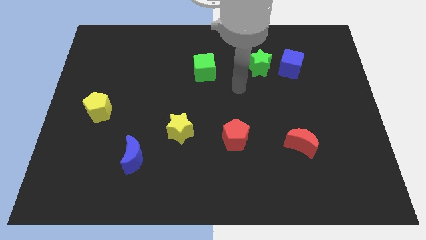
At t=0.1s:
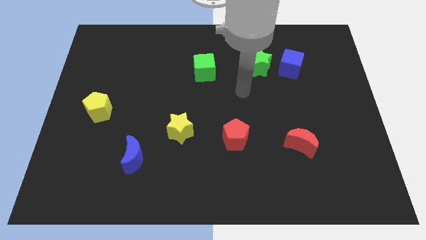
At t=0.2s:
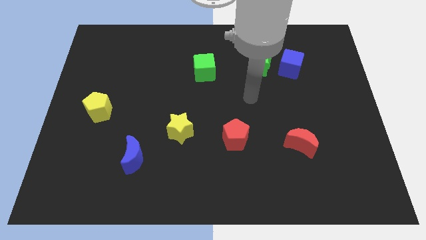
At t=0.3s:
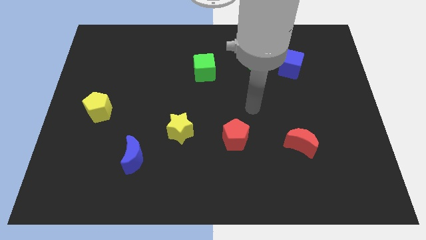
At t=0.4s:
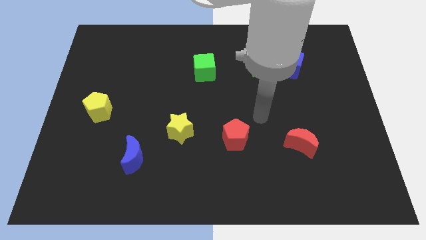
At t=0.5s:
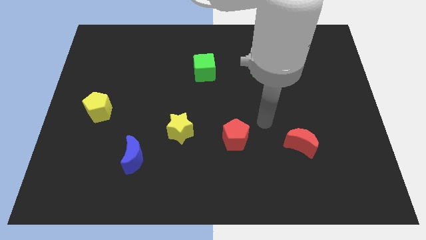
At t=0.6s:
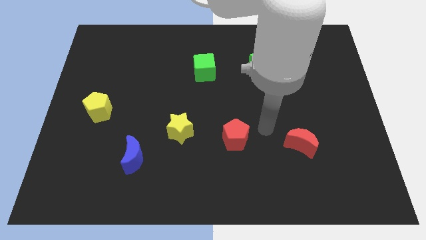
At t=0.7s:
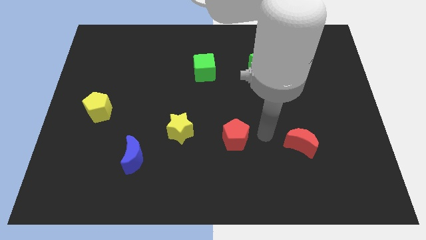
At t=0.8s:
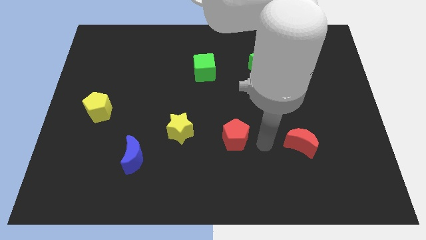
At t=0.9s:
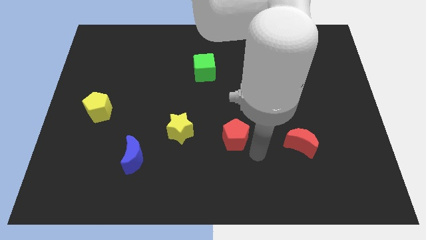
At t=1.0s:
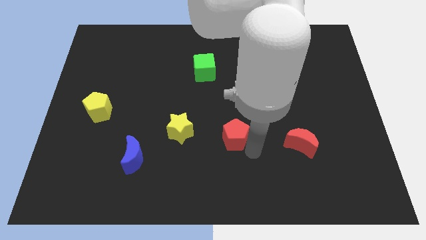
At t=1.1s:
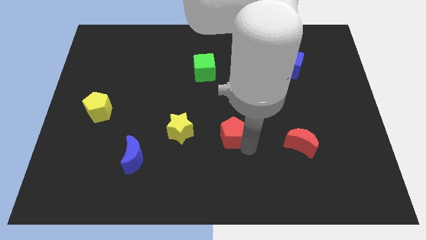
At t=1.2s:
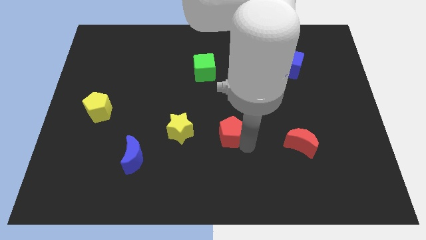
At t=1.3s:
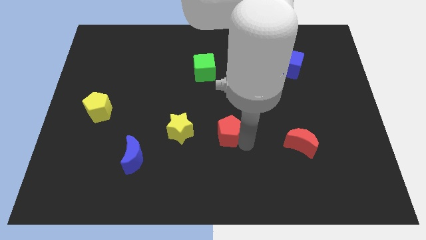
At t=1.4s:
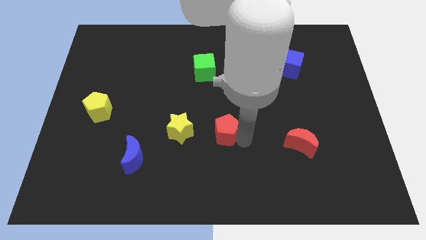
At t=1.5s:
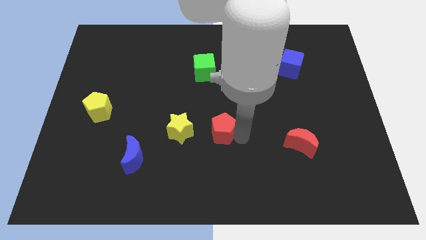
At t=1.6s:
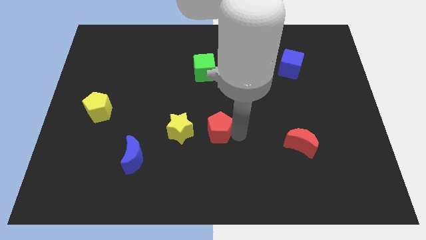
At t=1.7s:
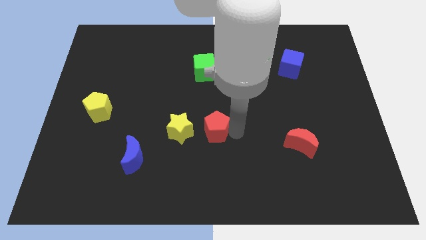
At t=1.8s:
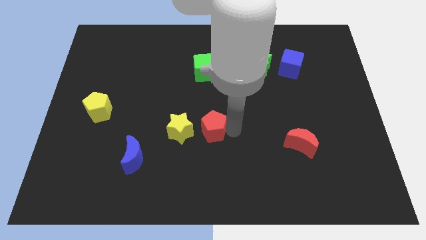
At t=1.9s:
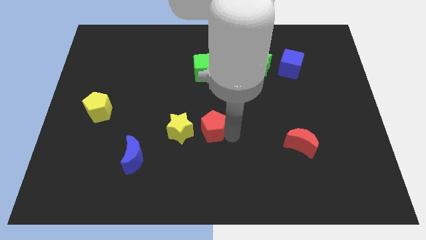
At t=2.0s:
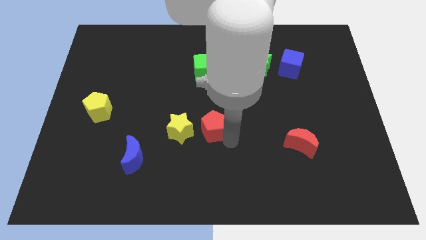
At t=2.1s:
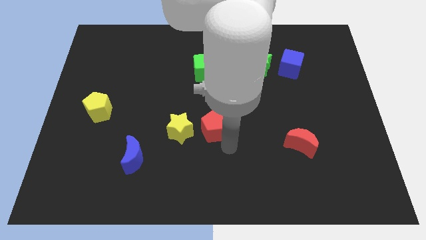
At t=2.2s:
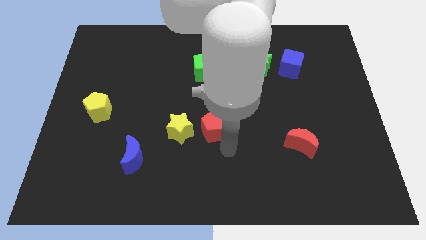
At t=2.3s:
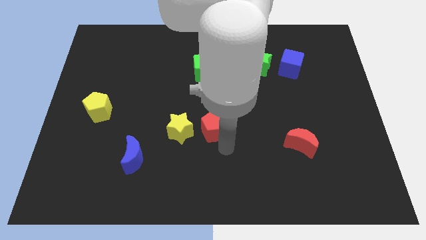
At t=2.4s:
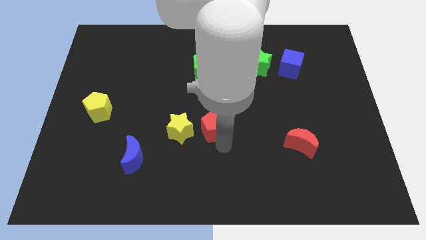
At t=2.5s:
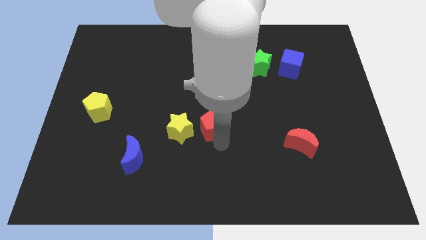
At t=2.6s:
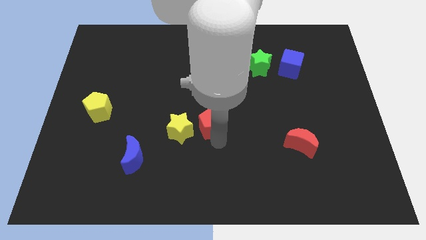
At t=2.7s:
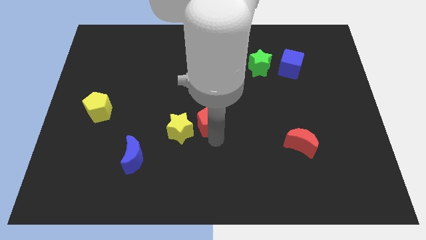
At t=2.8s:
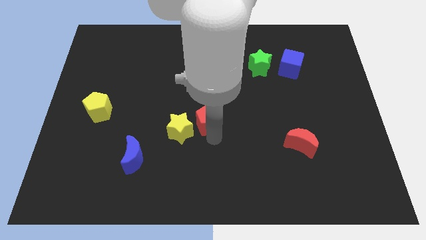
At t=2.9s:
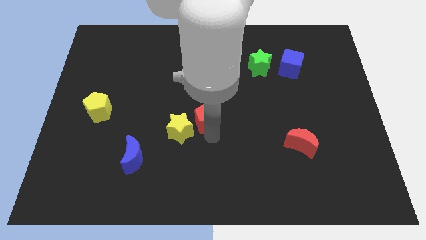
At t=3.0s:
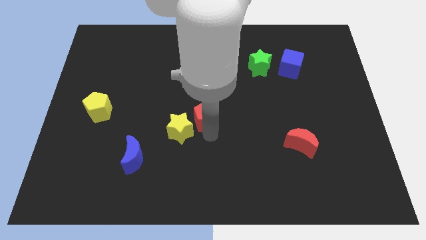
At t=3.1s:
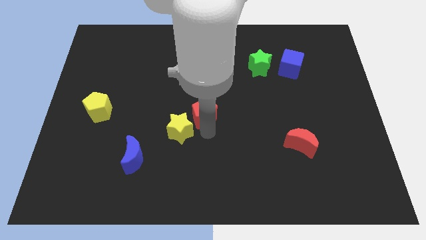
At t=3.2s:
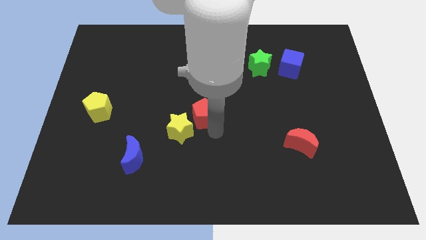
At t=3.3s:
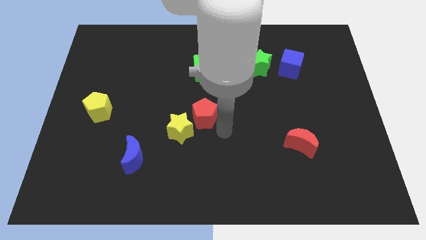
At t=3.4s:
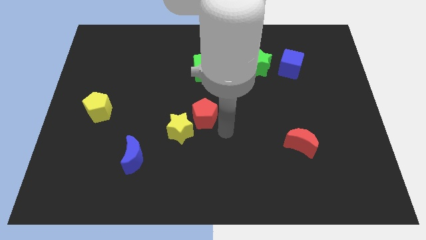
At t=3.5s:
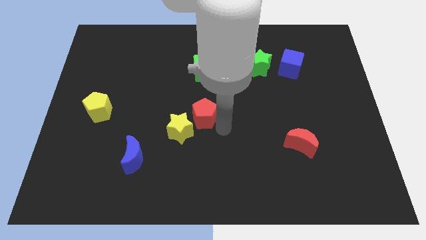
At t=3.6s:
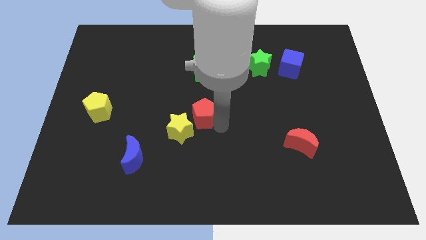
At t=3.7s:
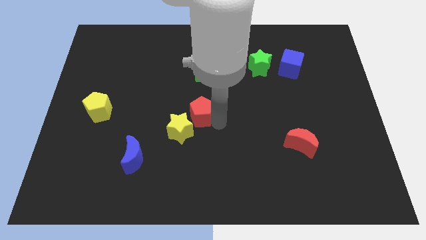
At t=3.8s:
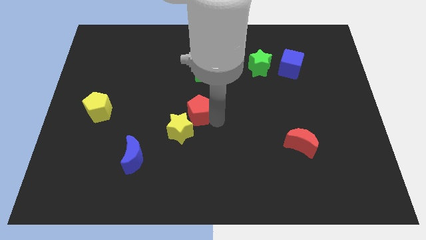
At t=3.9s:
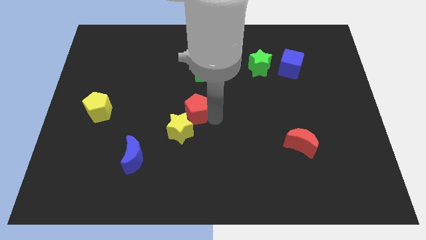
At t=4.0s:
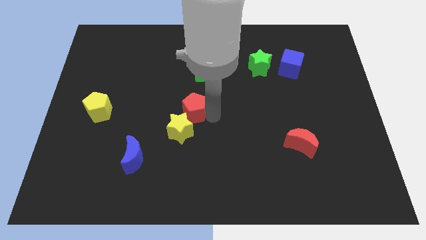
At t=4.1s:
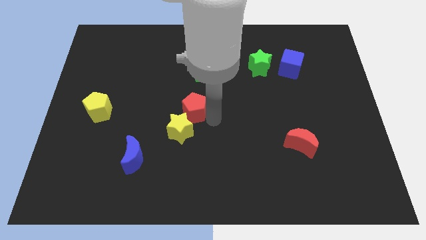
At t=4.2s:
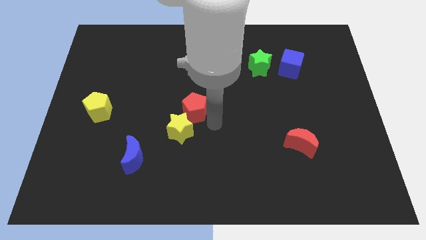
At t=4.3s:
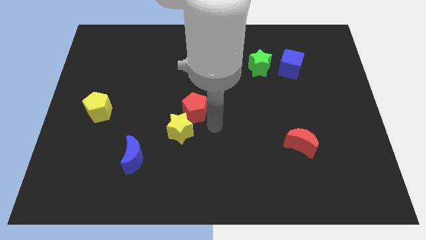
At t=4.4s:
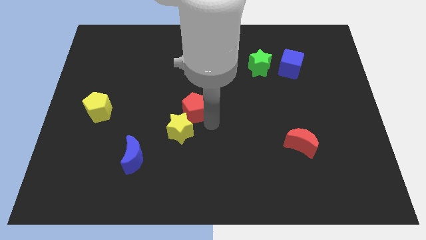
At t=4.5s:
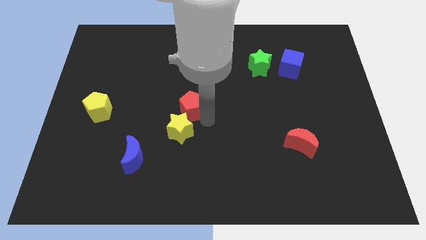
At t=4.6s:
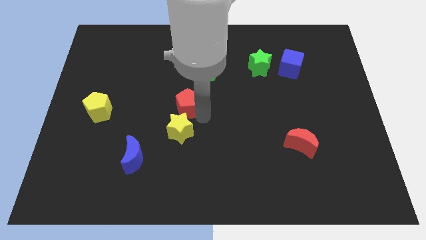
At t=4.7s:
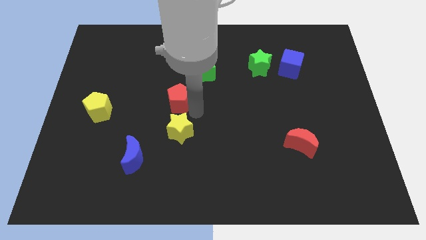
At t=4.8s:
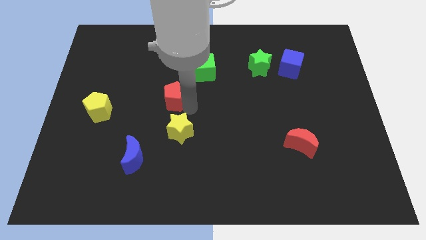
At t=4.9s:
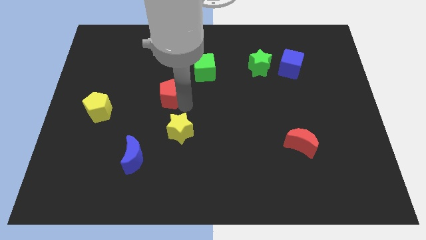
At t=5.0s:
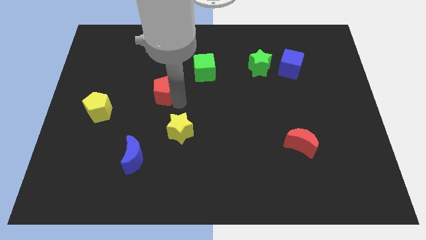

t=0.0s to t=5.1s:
push the red pentagon upwards and then to the left

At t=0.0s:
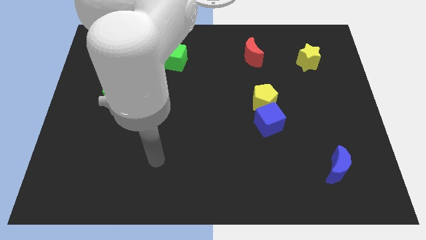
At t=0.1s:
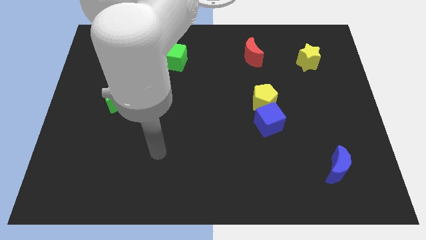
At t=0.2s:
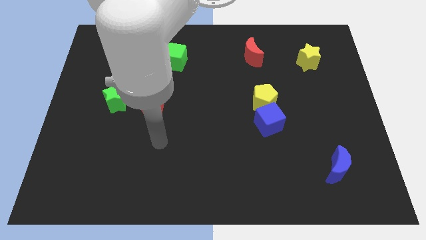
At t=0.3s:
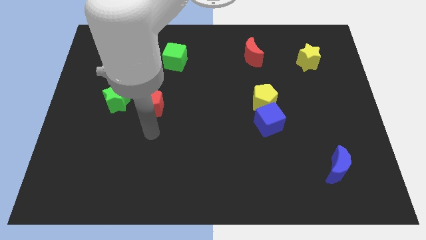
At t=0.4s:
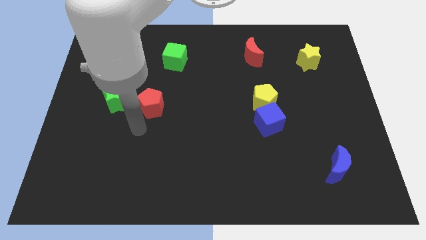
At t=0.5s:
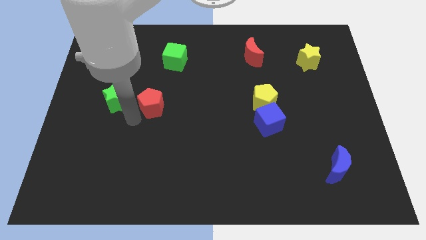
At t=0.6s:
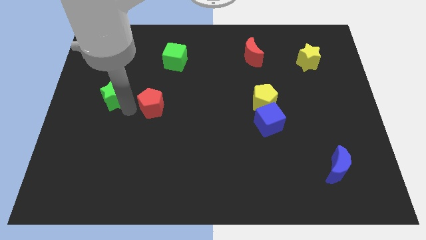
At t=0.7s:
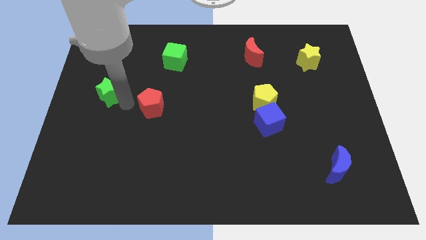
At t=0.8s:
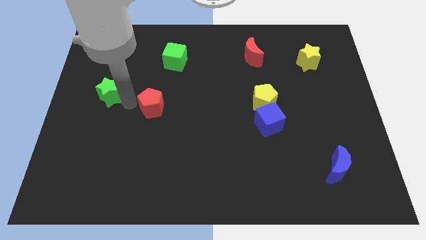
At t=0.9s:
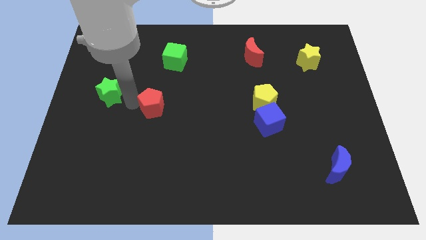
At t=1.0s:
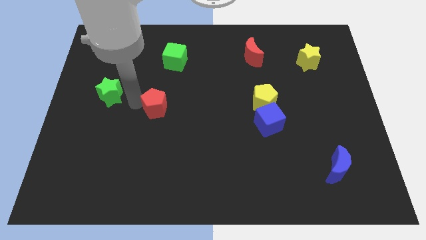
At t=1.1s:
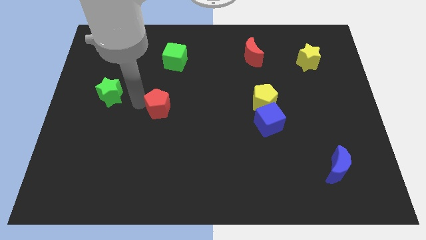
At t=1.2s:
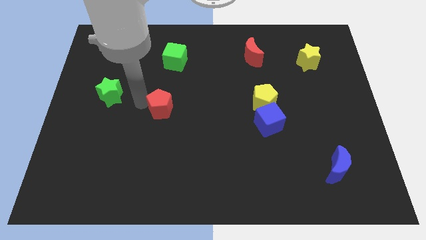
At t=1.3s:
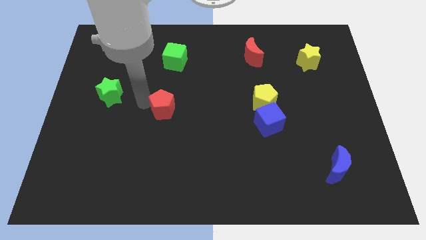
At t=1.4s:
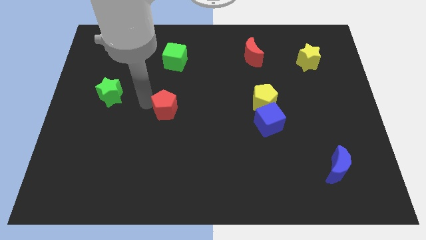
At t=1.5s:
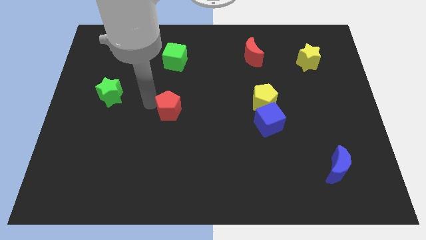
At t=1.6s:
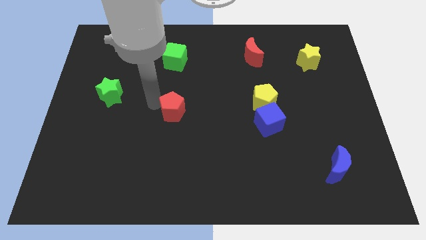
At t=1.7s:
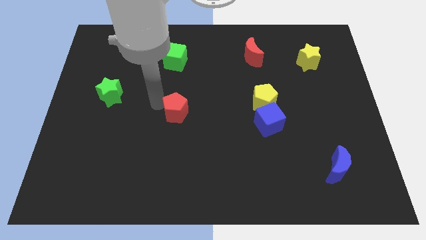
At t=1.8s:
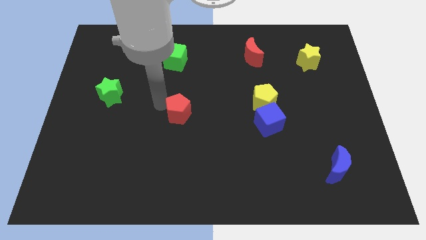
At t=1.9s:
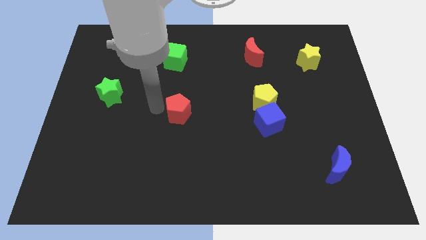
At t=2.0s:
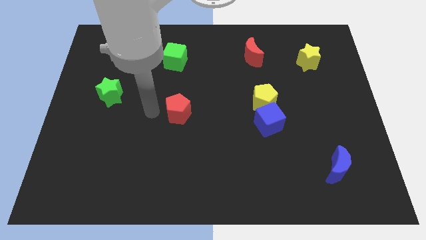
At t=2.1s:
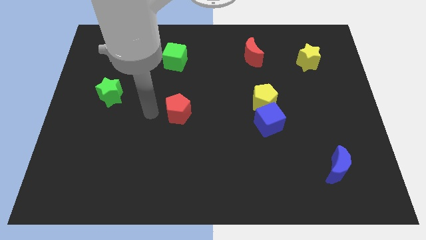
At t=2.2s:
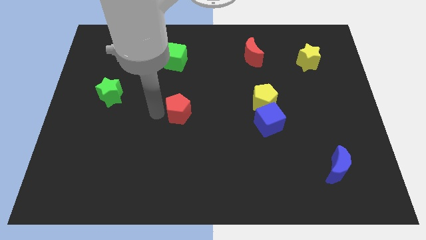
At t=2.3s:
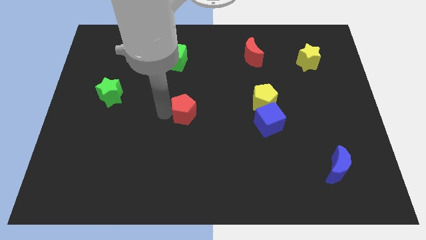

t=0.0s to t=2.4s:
slide the red pentagon a little bit right

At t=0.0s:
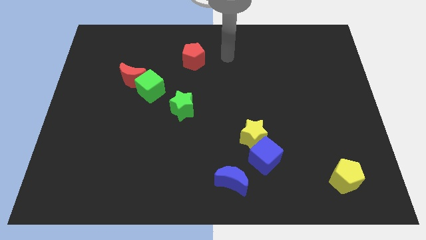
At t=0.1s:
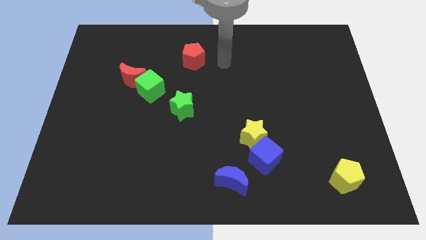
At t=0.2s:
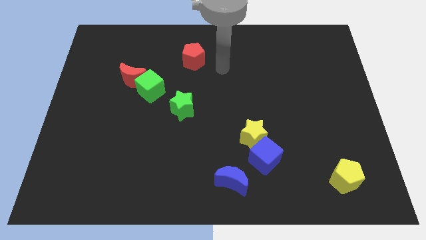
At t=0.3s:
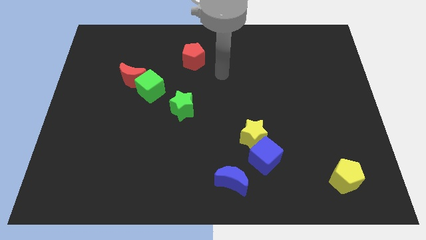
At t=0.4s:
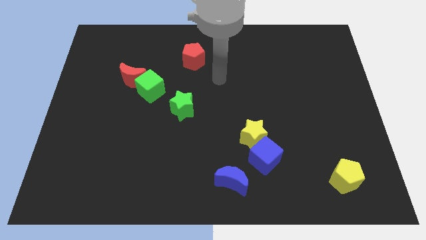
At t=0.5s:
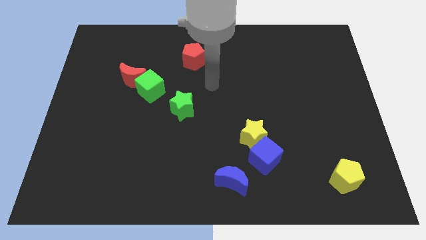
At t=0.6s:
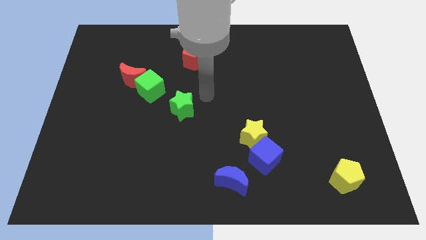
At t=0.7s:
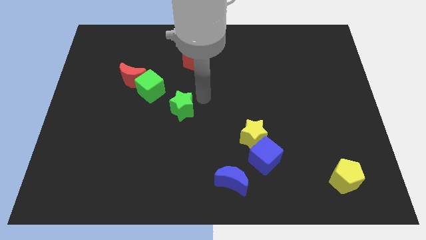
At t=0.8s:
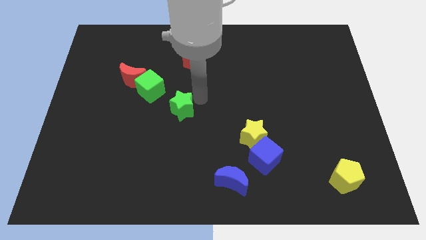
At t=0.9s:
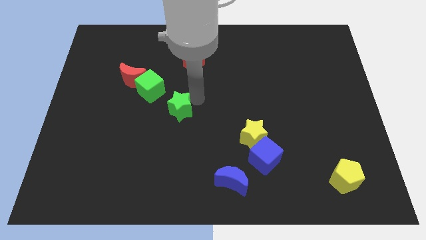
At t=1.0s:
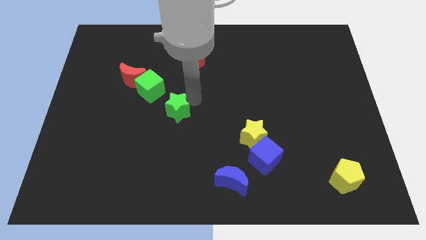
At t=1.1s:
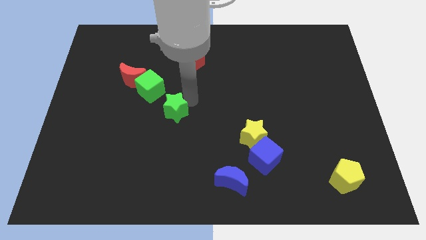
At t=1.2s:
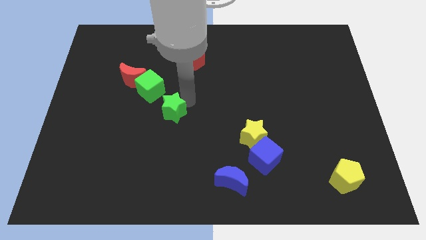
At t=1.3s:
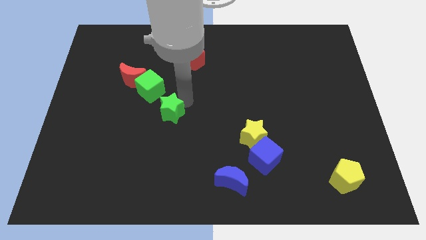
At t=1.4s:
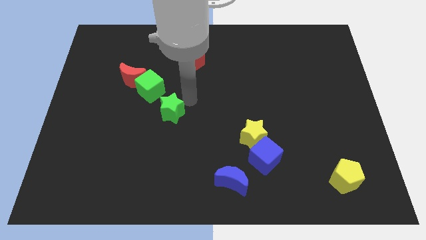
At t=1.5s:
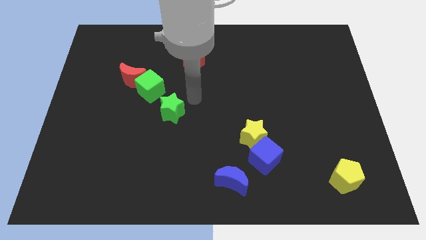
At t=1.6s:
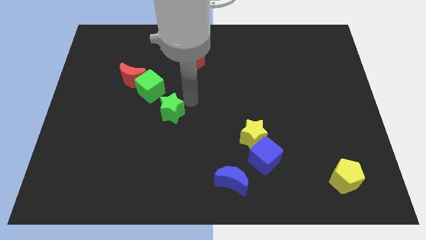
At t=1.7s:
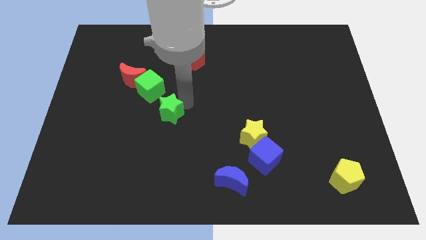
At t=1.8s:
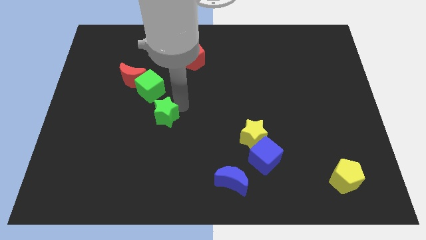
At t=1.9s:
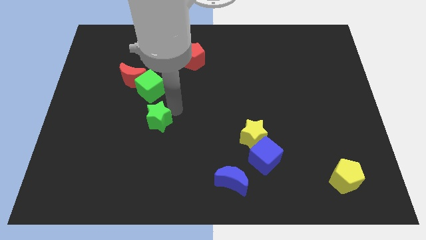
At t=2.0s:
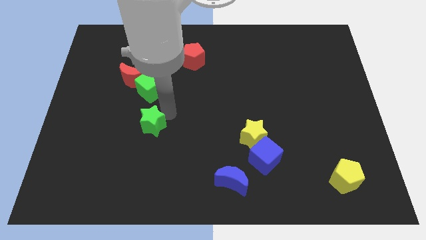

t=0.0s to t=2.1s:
slightly push the green star downwards and to the left diagonally
